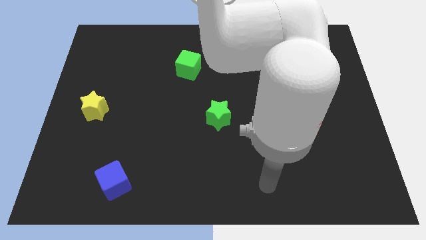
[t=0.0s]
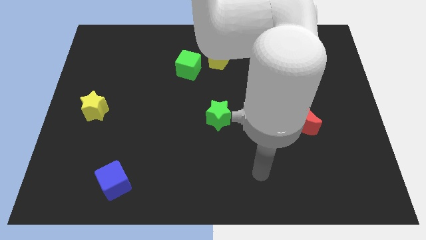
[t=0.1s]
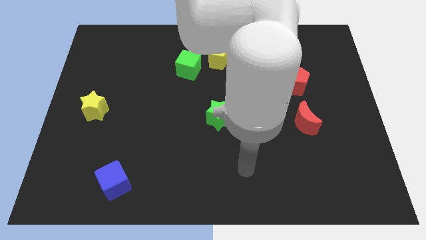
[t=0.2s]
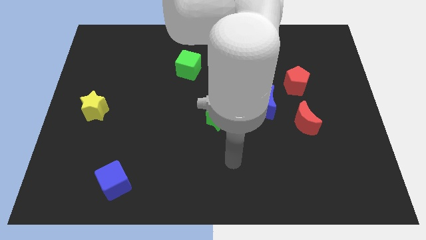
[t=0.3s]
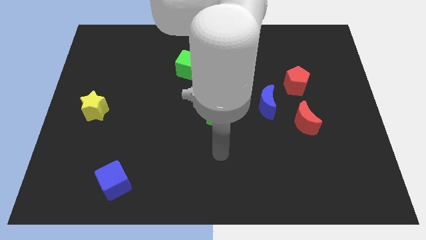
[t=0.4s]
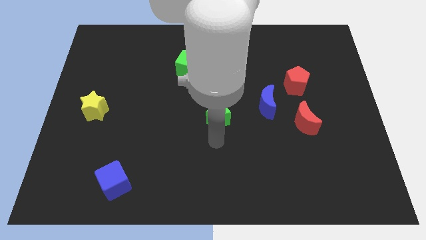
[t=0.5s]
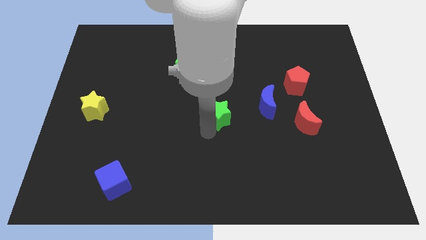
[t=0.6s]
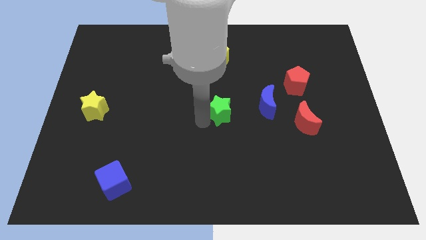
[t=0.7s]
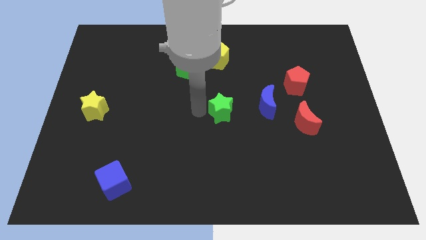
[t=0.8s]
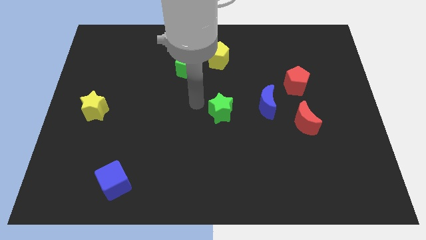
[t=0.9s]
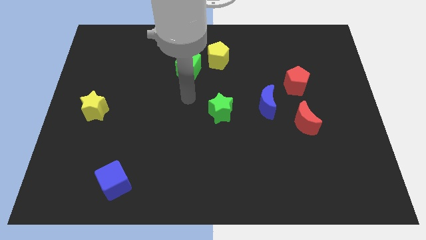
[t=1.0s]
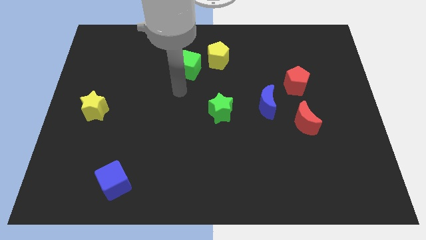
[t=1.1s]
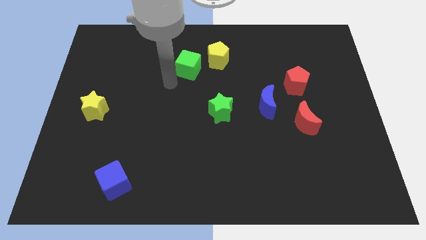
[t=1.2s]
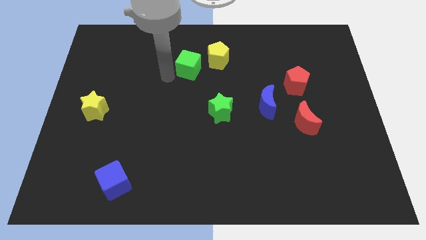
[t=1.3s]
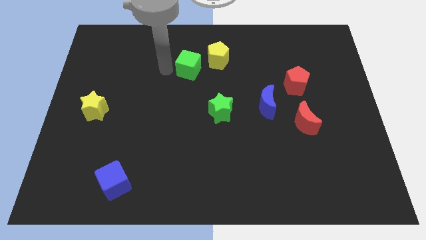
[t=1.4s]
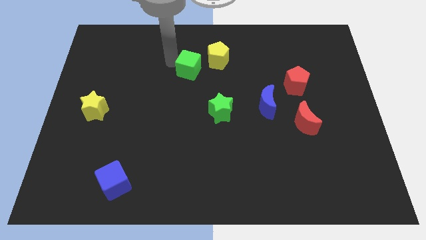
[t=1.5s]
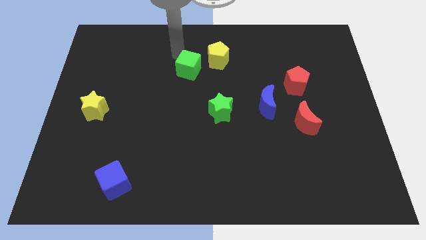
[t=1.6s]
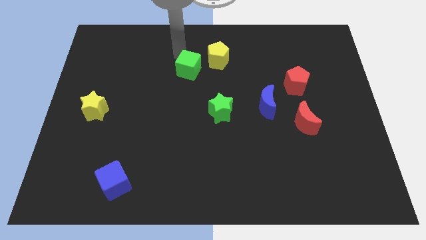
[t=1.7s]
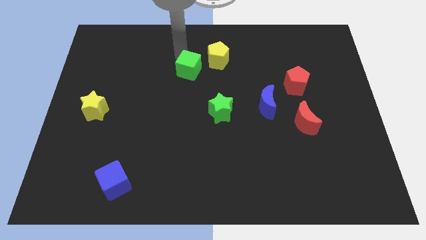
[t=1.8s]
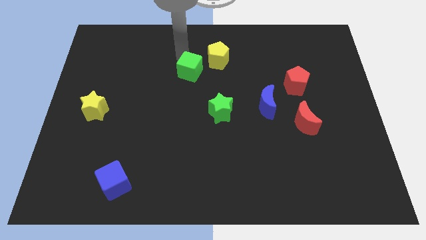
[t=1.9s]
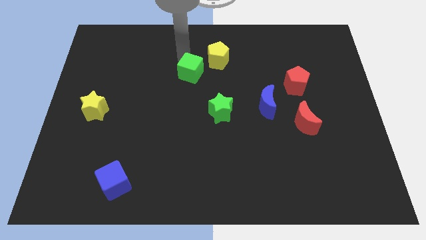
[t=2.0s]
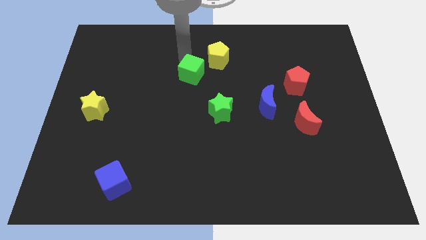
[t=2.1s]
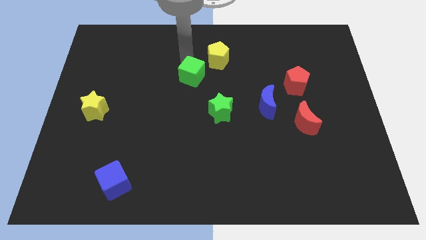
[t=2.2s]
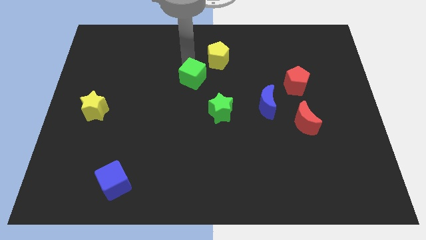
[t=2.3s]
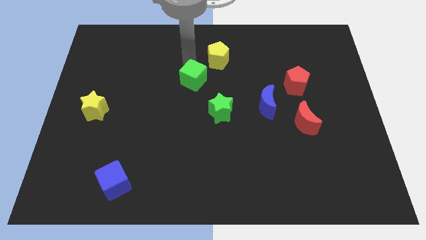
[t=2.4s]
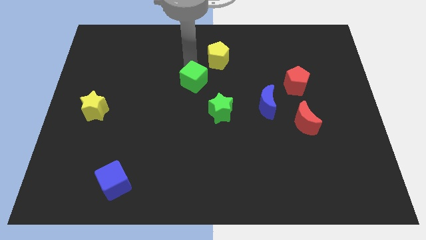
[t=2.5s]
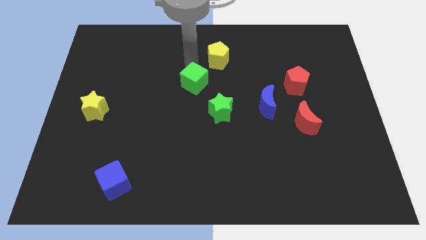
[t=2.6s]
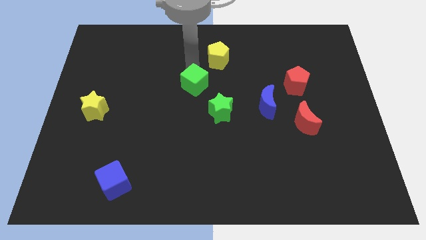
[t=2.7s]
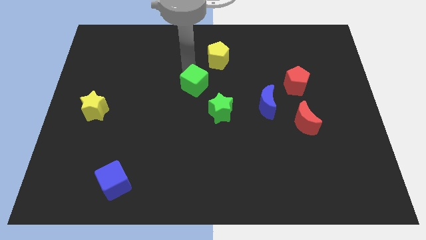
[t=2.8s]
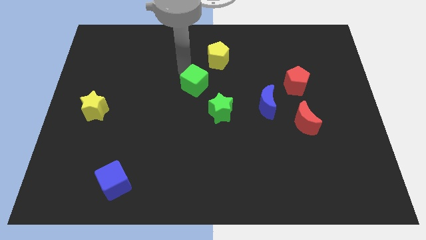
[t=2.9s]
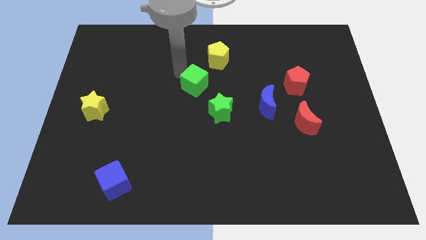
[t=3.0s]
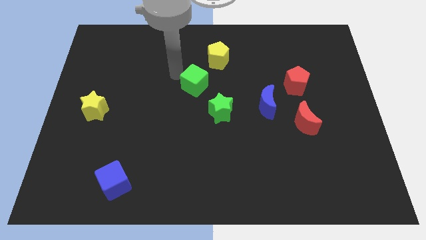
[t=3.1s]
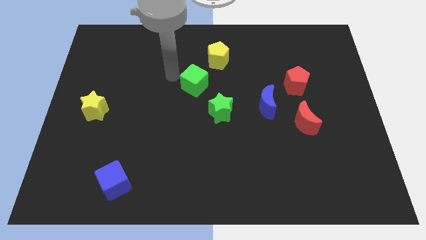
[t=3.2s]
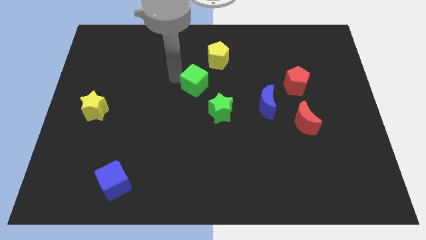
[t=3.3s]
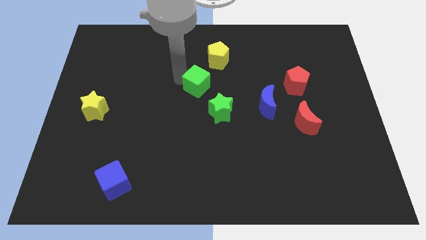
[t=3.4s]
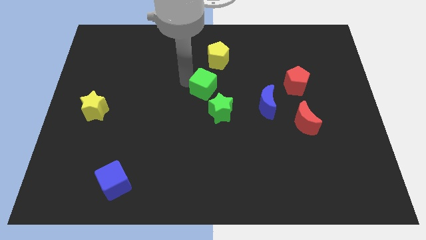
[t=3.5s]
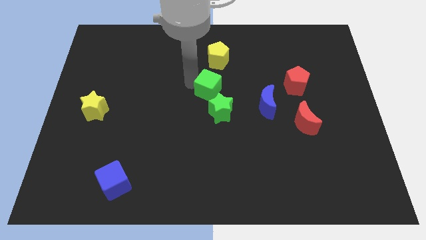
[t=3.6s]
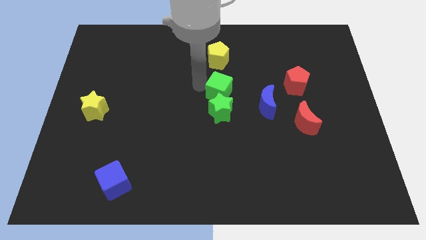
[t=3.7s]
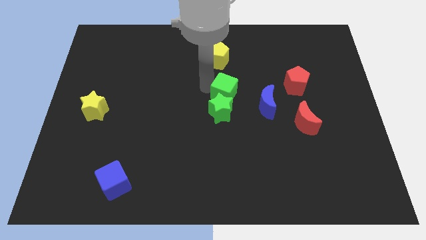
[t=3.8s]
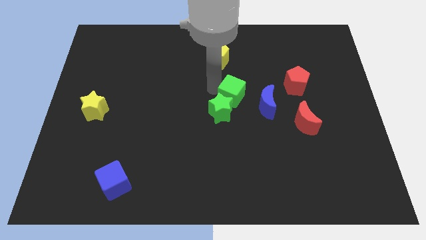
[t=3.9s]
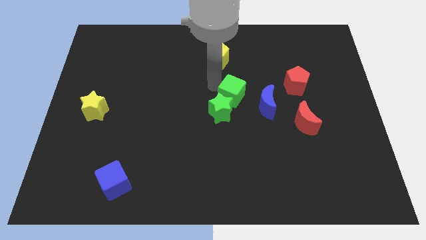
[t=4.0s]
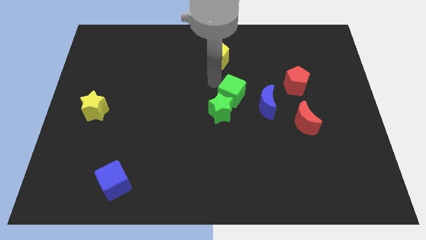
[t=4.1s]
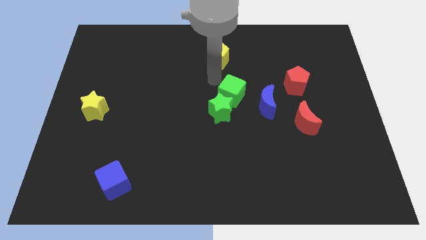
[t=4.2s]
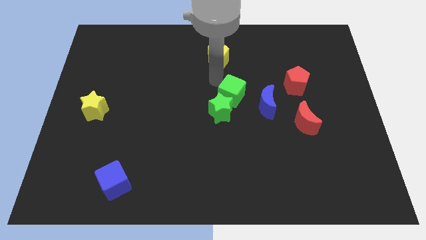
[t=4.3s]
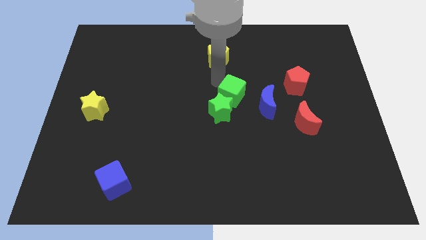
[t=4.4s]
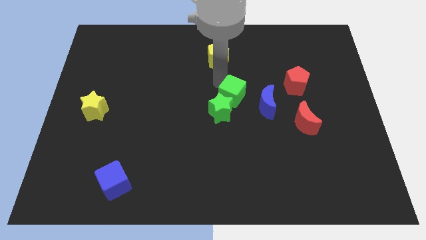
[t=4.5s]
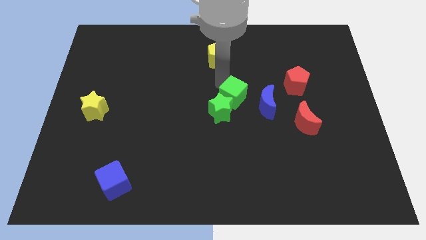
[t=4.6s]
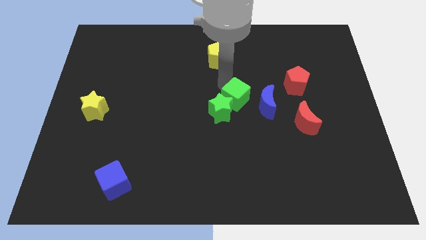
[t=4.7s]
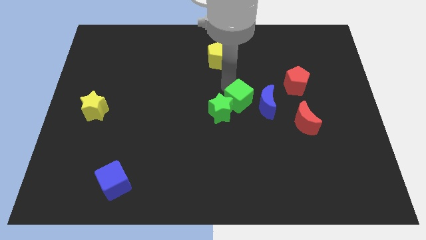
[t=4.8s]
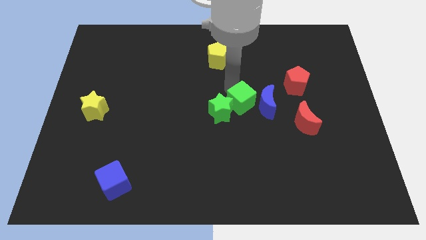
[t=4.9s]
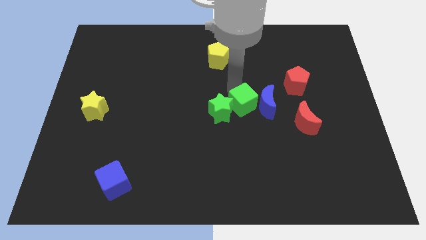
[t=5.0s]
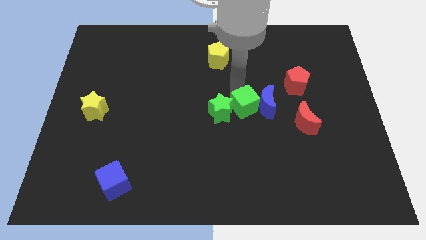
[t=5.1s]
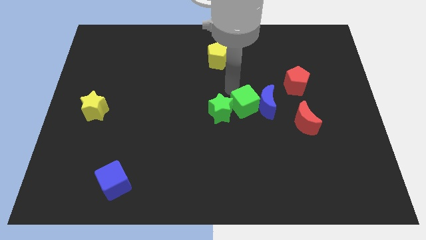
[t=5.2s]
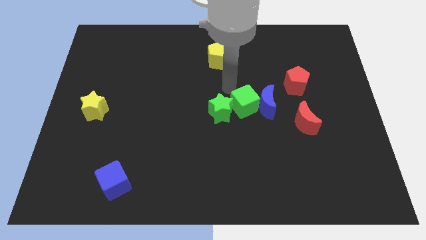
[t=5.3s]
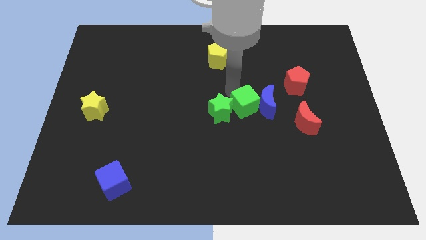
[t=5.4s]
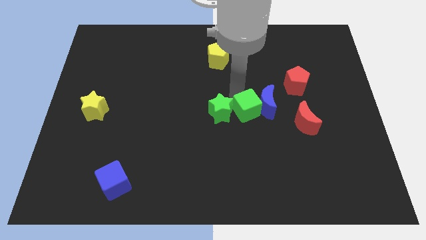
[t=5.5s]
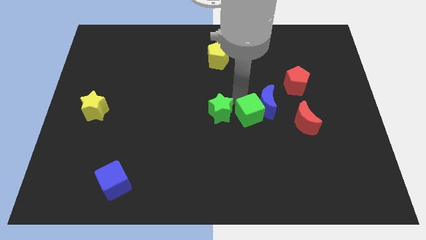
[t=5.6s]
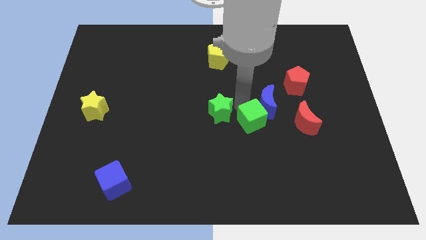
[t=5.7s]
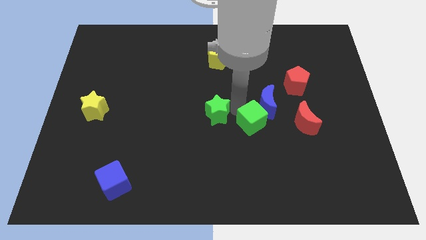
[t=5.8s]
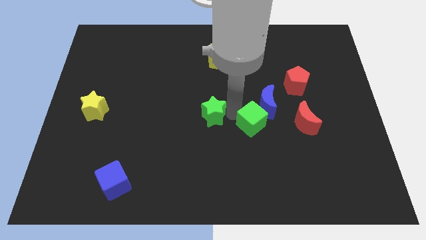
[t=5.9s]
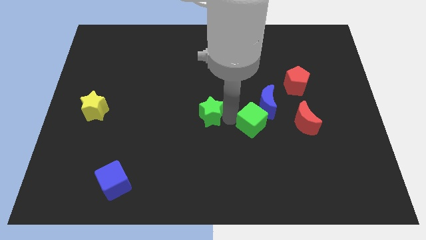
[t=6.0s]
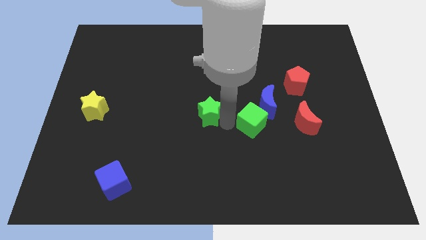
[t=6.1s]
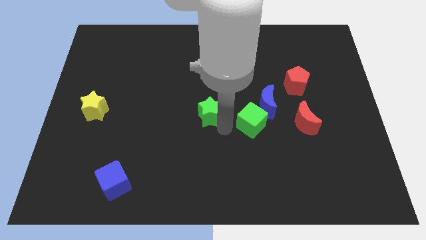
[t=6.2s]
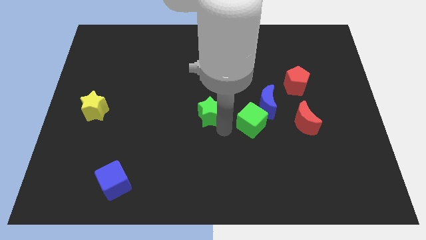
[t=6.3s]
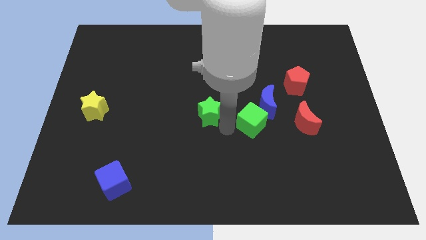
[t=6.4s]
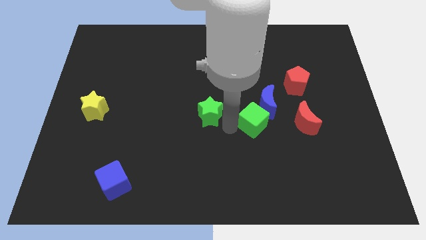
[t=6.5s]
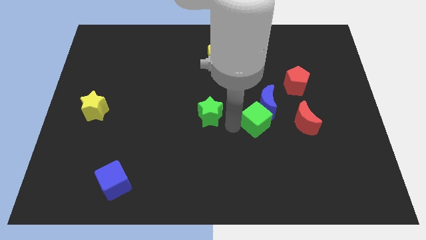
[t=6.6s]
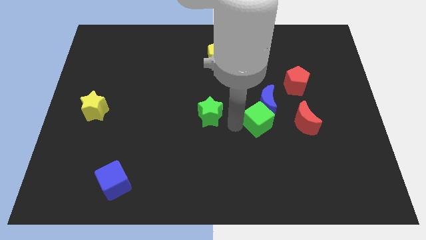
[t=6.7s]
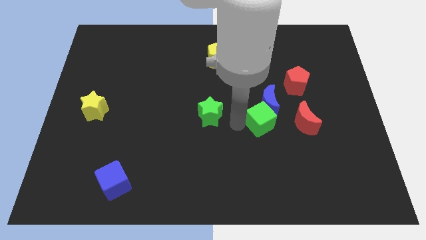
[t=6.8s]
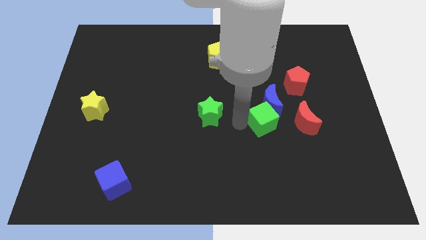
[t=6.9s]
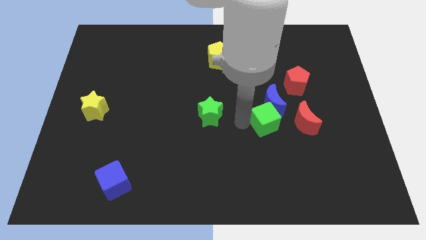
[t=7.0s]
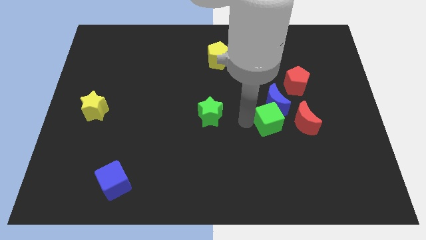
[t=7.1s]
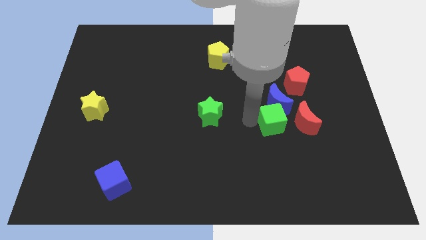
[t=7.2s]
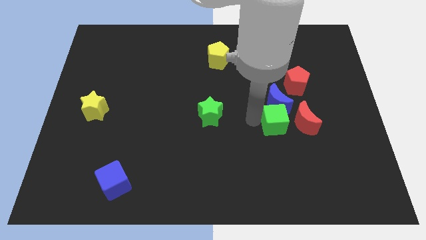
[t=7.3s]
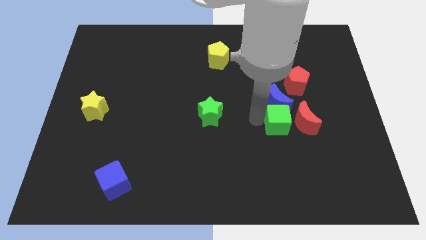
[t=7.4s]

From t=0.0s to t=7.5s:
move the green cube to the red moon

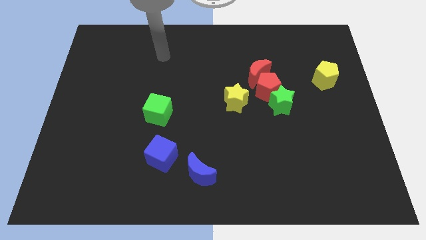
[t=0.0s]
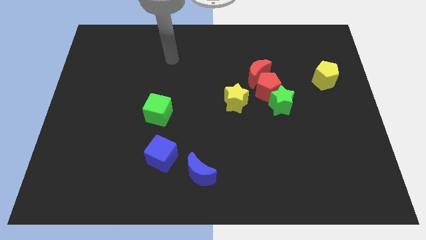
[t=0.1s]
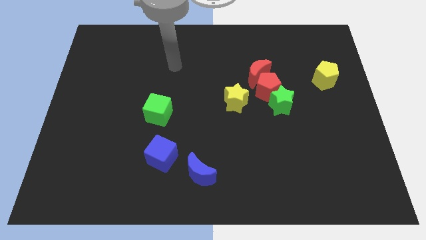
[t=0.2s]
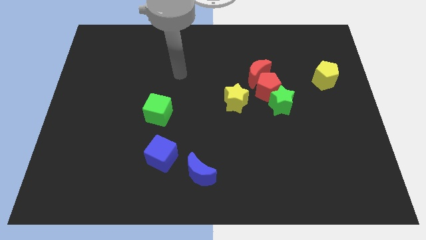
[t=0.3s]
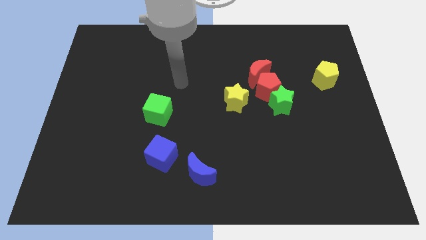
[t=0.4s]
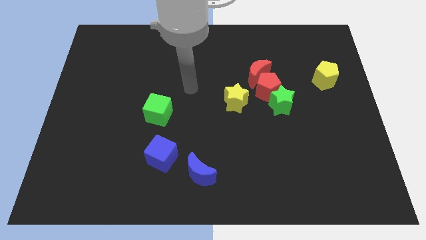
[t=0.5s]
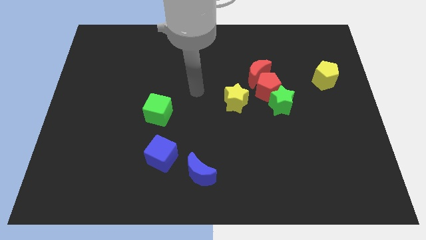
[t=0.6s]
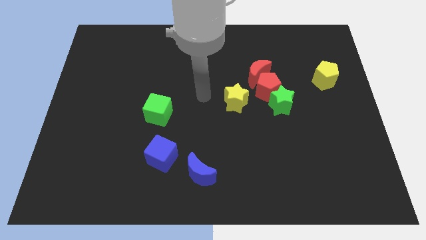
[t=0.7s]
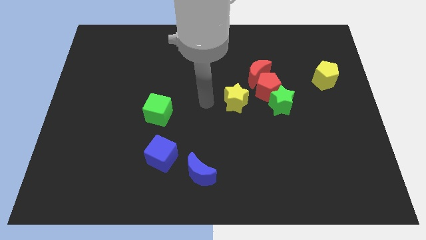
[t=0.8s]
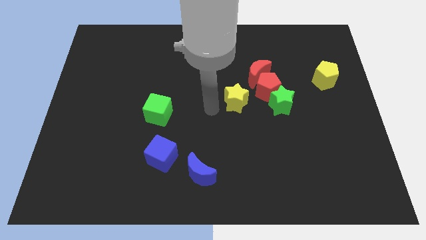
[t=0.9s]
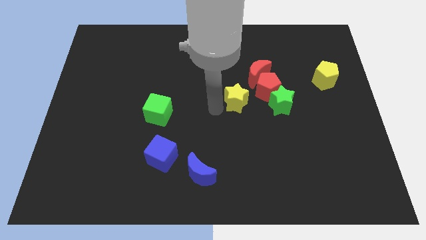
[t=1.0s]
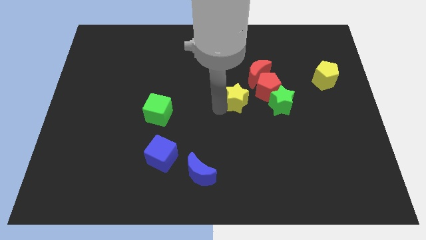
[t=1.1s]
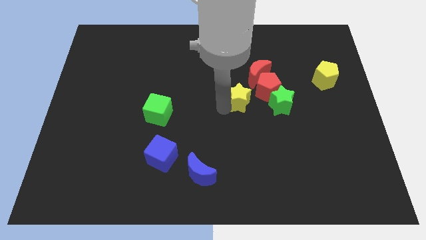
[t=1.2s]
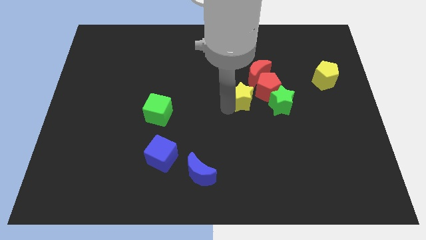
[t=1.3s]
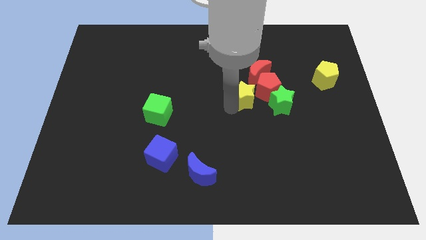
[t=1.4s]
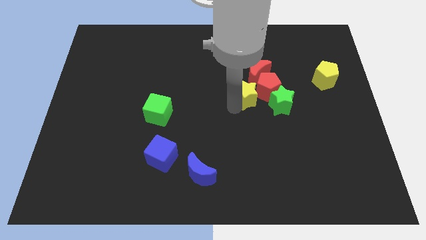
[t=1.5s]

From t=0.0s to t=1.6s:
slide the yellow star to the red pentagon
